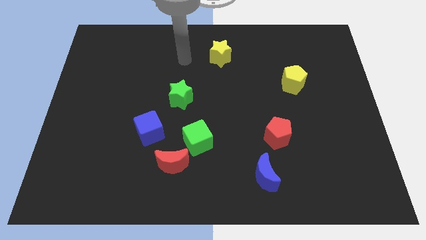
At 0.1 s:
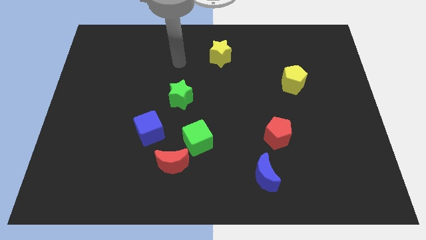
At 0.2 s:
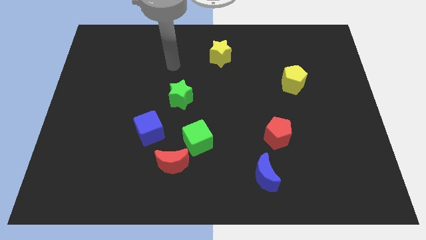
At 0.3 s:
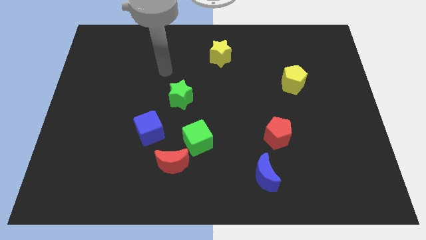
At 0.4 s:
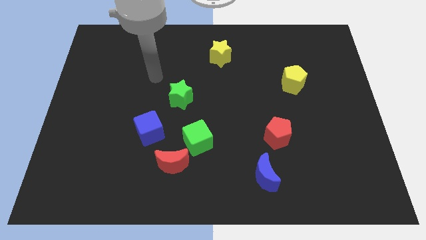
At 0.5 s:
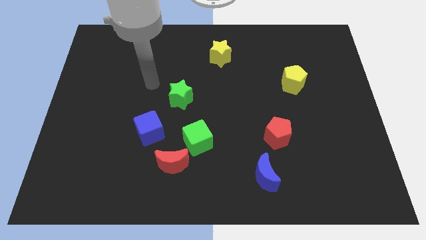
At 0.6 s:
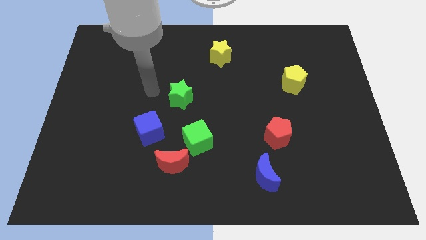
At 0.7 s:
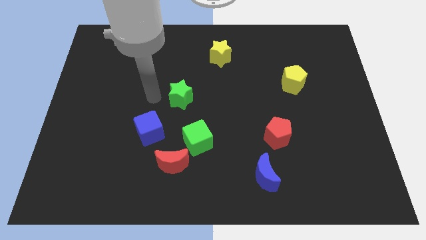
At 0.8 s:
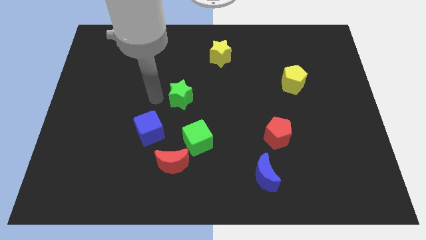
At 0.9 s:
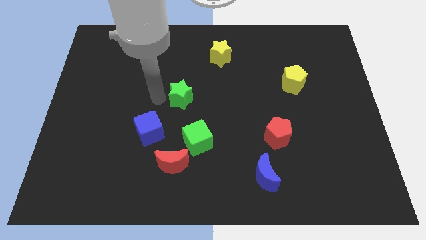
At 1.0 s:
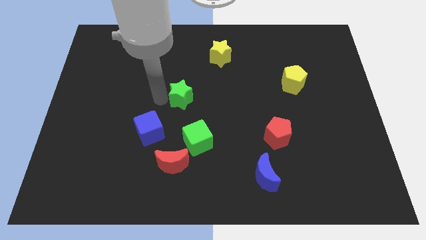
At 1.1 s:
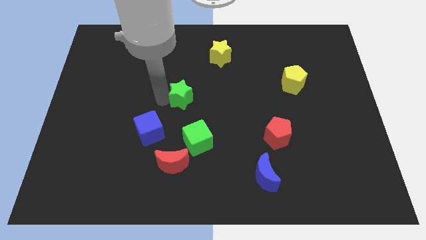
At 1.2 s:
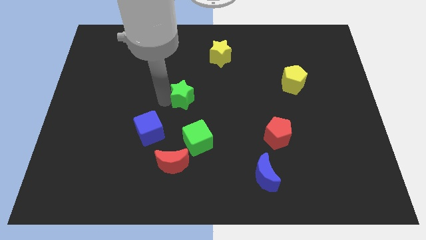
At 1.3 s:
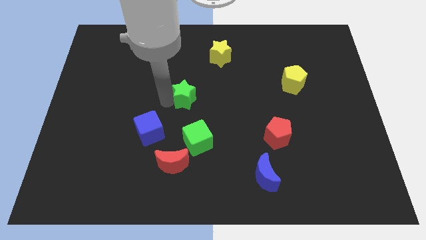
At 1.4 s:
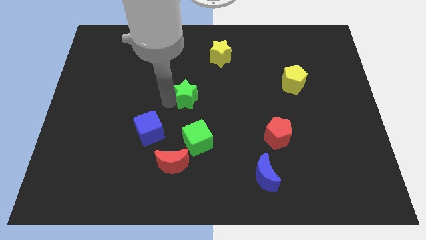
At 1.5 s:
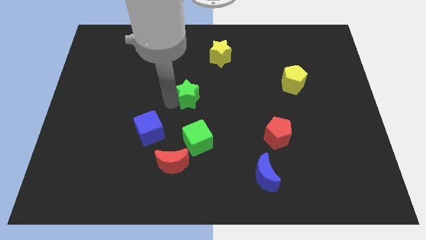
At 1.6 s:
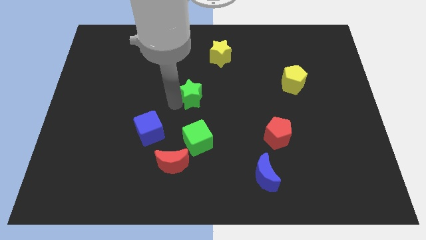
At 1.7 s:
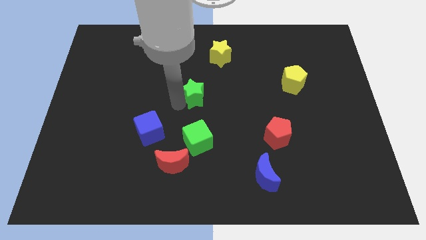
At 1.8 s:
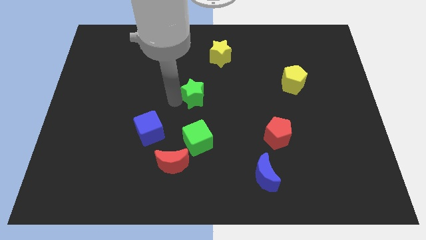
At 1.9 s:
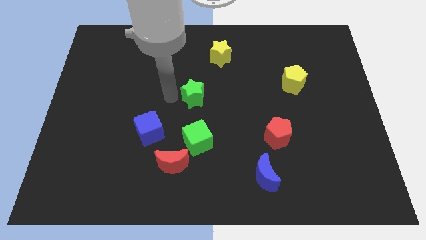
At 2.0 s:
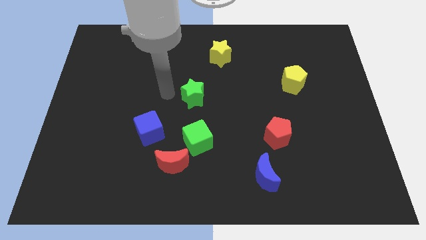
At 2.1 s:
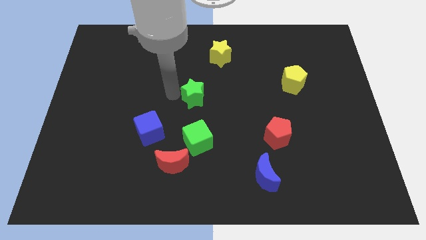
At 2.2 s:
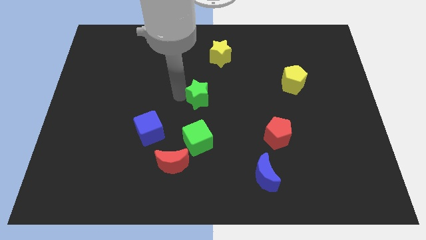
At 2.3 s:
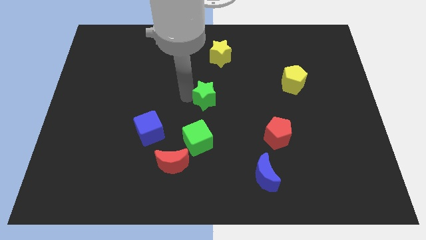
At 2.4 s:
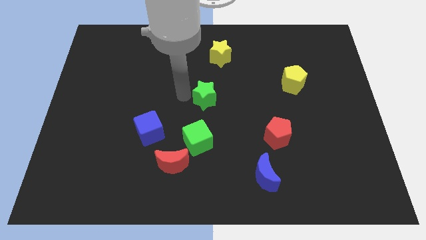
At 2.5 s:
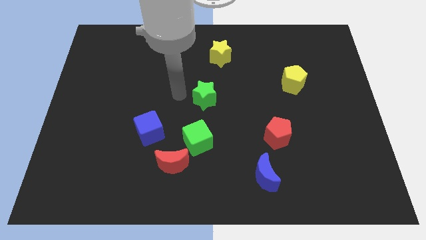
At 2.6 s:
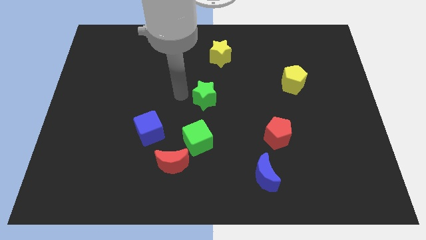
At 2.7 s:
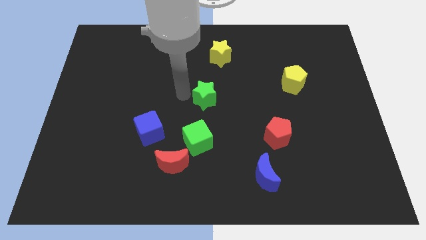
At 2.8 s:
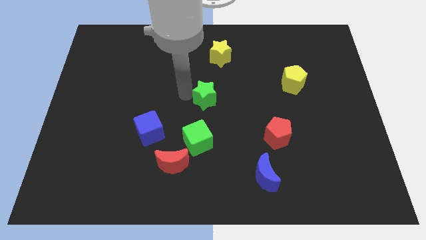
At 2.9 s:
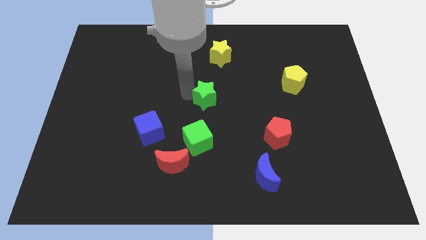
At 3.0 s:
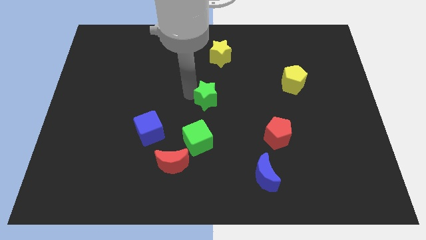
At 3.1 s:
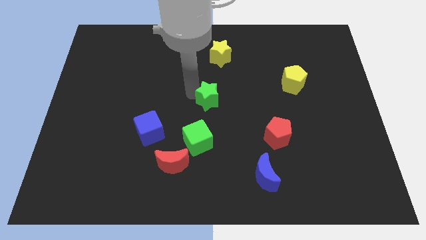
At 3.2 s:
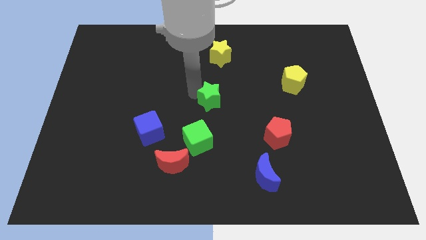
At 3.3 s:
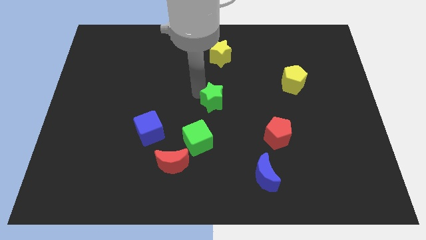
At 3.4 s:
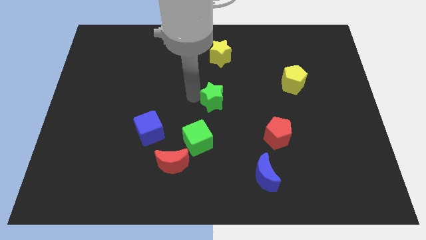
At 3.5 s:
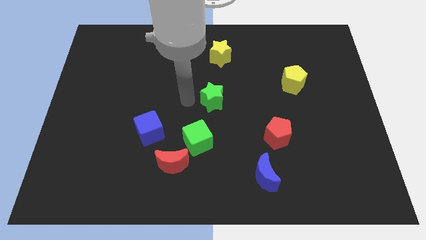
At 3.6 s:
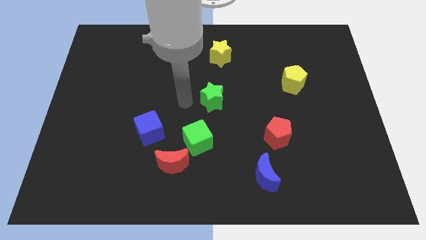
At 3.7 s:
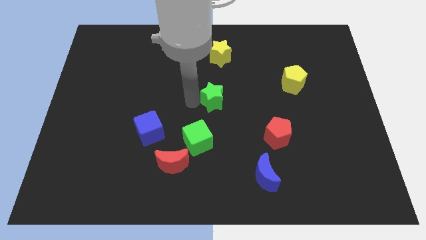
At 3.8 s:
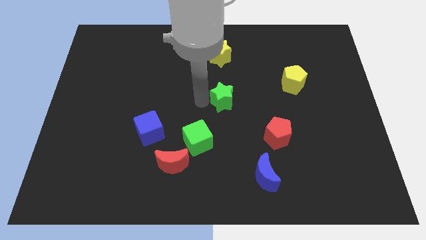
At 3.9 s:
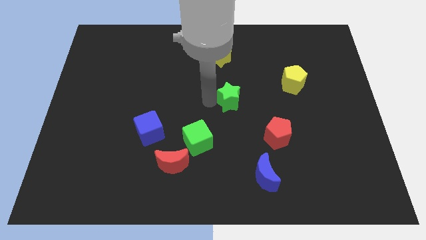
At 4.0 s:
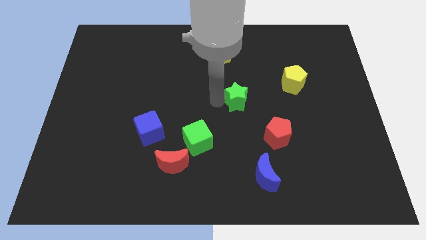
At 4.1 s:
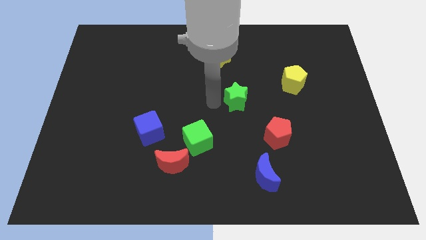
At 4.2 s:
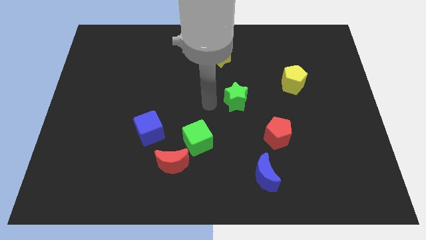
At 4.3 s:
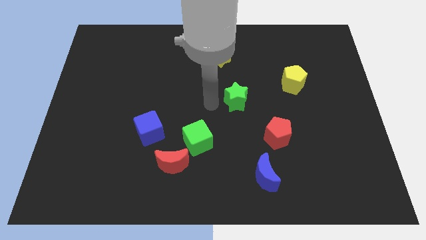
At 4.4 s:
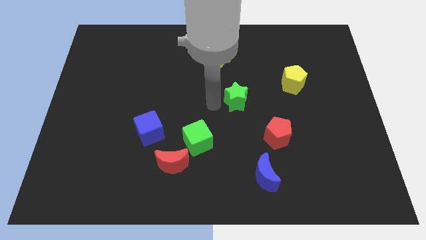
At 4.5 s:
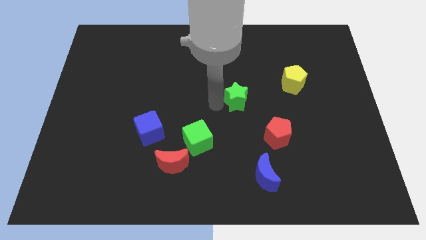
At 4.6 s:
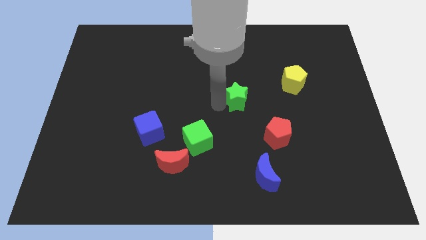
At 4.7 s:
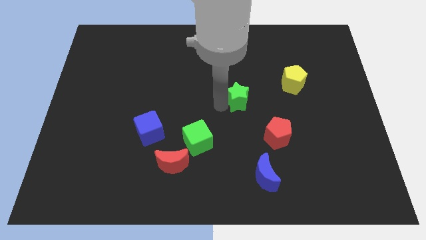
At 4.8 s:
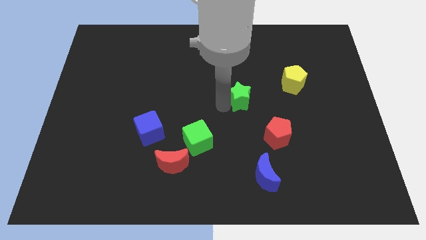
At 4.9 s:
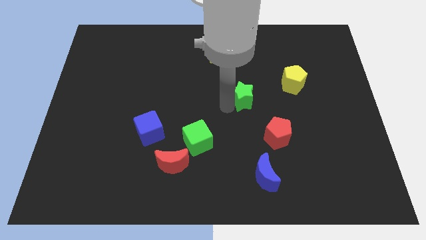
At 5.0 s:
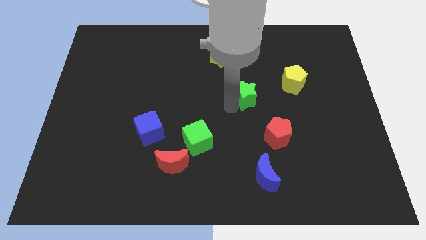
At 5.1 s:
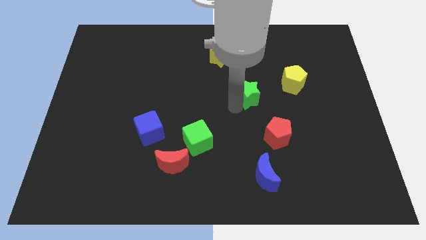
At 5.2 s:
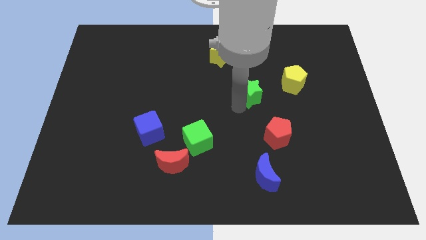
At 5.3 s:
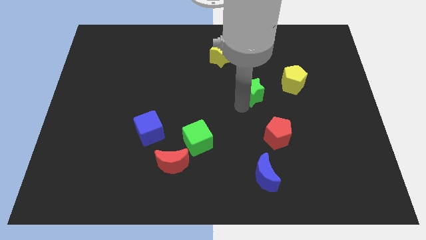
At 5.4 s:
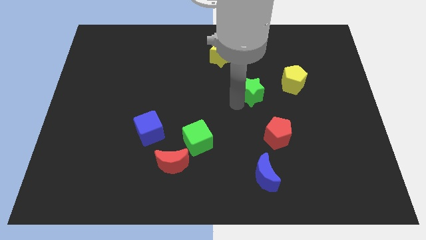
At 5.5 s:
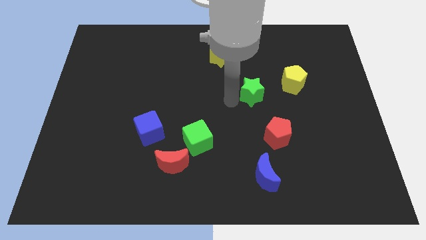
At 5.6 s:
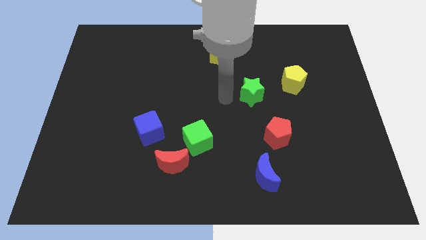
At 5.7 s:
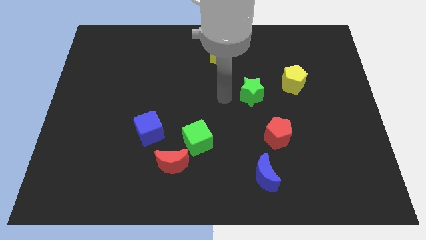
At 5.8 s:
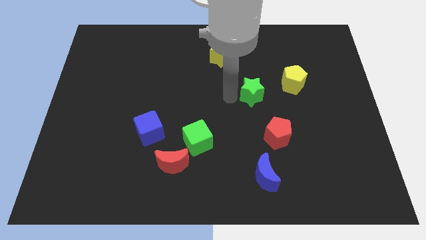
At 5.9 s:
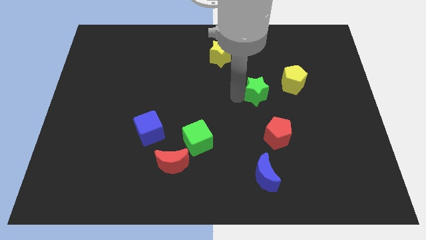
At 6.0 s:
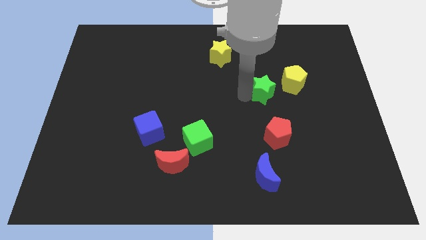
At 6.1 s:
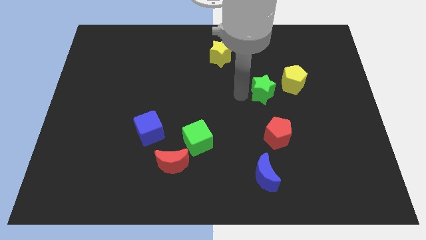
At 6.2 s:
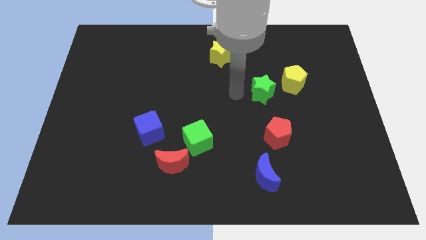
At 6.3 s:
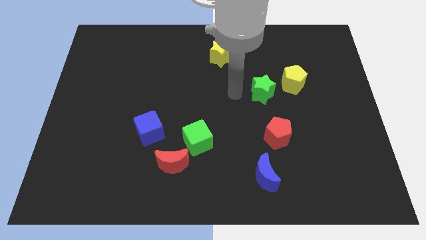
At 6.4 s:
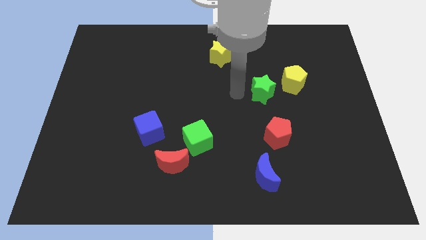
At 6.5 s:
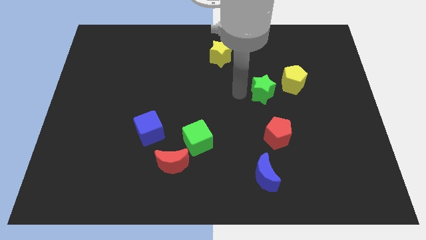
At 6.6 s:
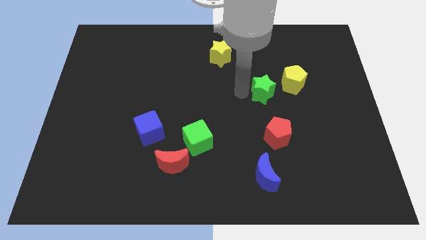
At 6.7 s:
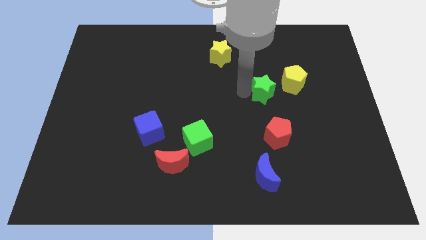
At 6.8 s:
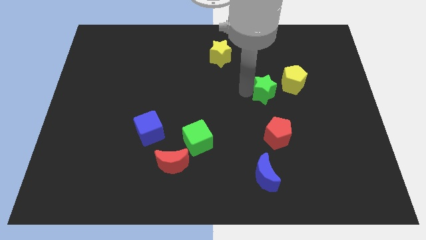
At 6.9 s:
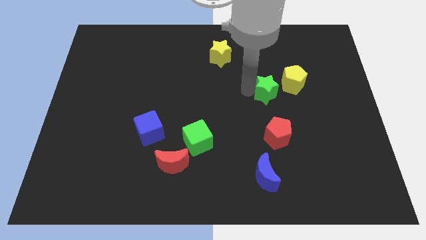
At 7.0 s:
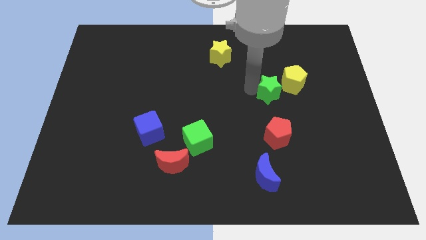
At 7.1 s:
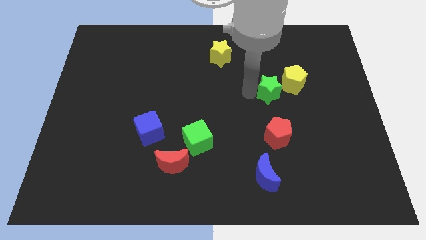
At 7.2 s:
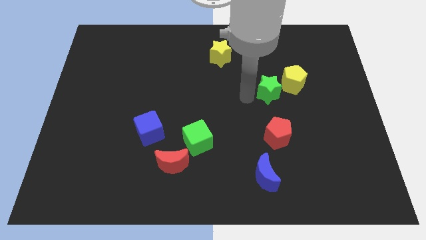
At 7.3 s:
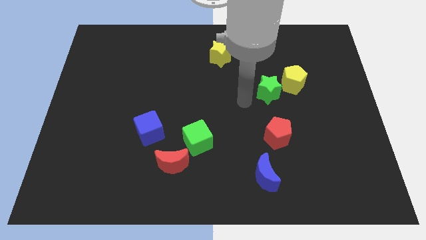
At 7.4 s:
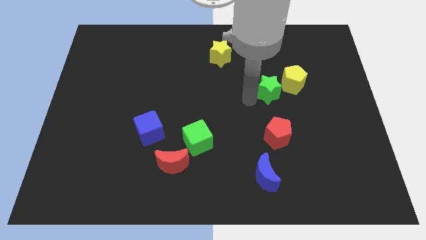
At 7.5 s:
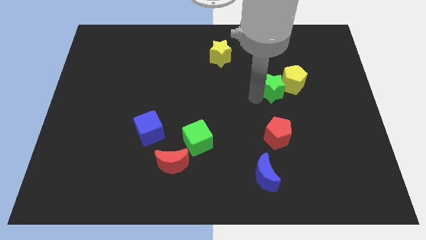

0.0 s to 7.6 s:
push the green star close to the yellow pentagon

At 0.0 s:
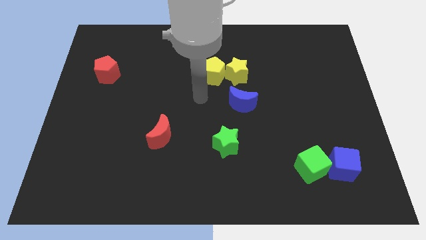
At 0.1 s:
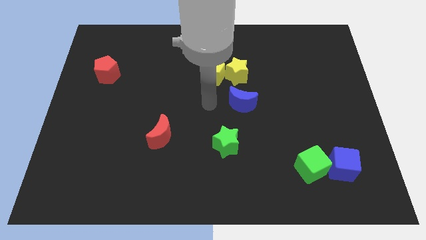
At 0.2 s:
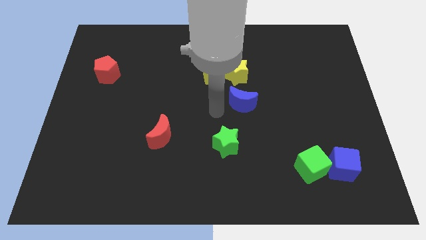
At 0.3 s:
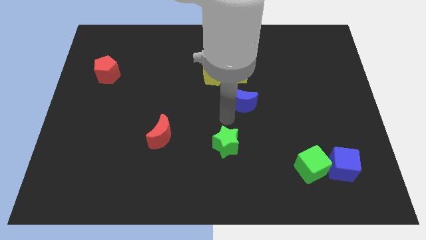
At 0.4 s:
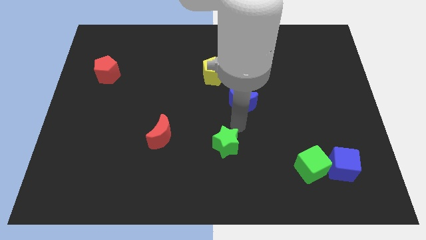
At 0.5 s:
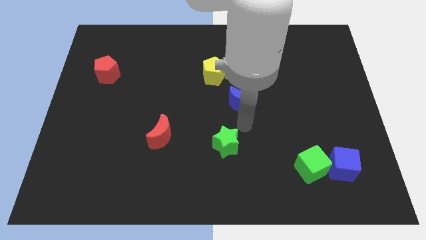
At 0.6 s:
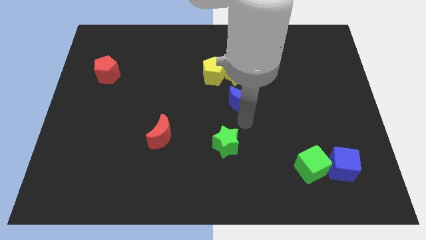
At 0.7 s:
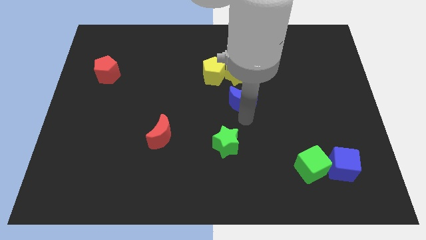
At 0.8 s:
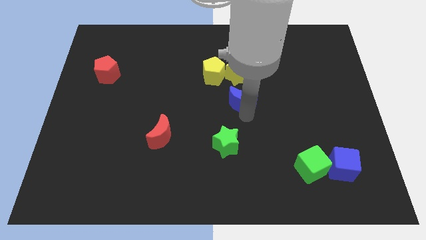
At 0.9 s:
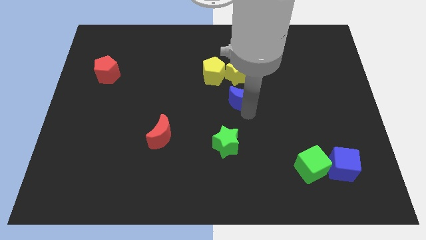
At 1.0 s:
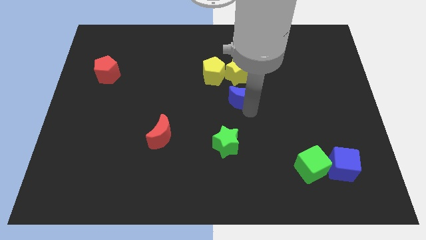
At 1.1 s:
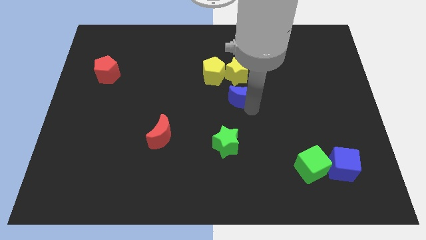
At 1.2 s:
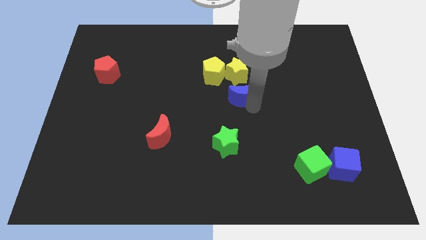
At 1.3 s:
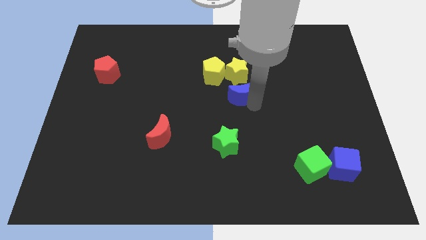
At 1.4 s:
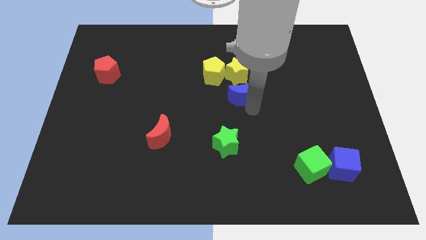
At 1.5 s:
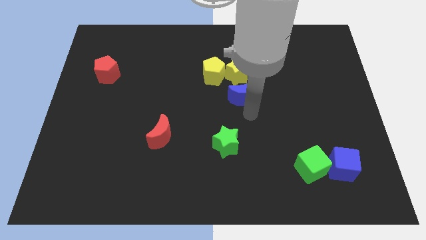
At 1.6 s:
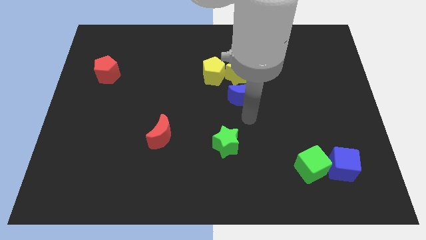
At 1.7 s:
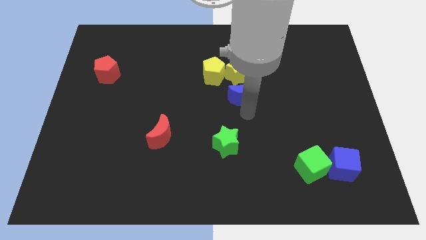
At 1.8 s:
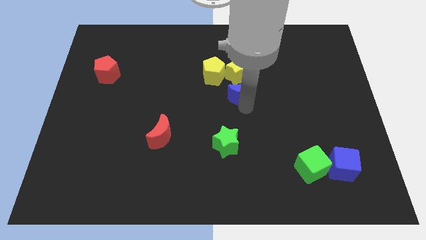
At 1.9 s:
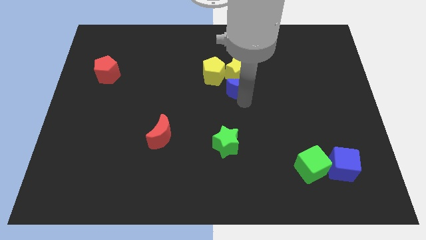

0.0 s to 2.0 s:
push the blue moon next to the yellow star
